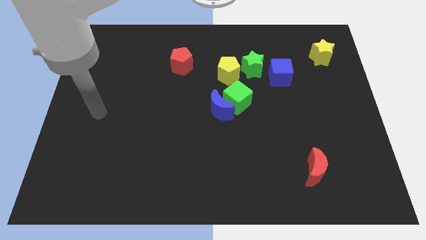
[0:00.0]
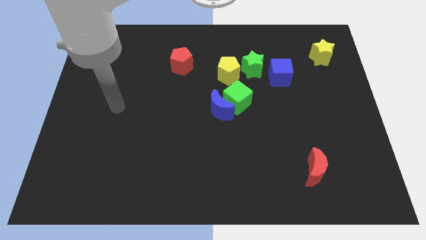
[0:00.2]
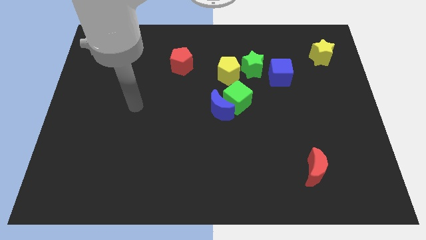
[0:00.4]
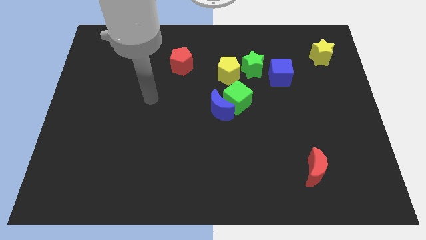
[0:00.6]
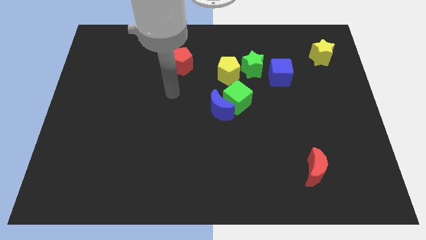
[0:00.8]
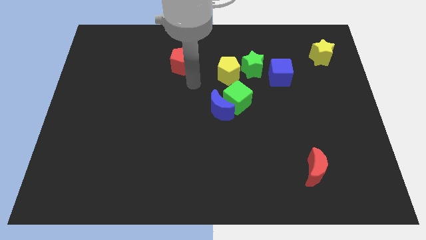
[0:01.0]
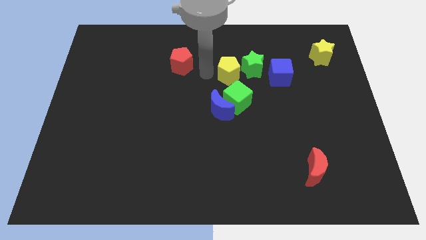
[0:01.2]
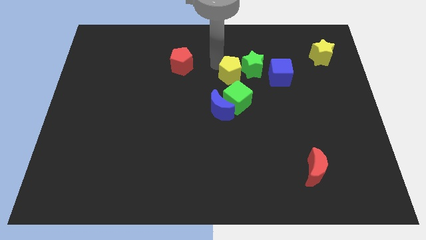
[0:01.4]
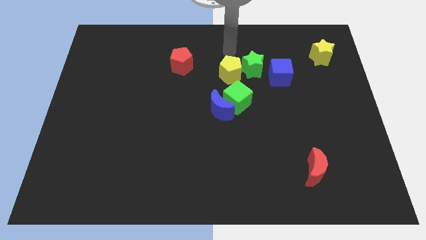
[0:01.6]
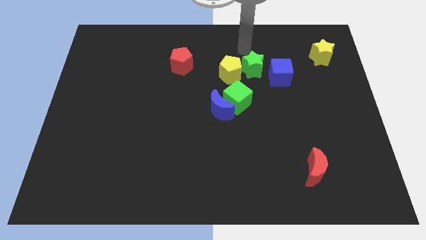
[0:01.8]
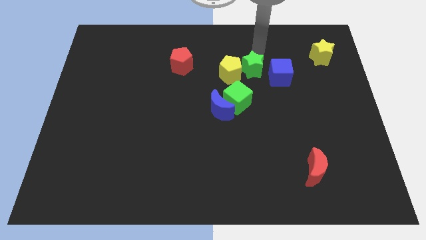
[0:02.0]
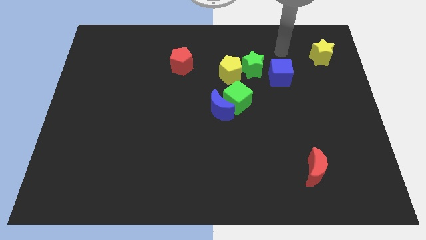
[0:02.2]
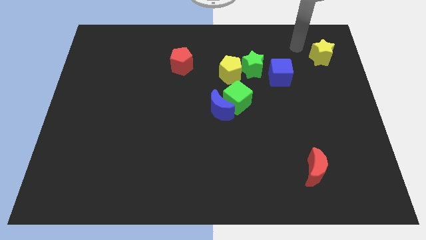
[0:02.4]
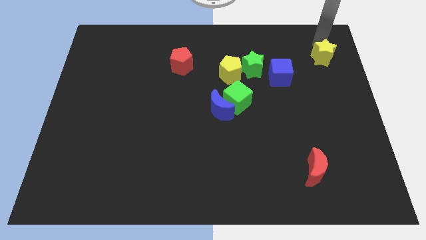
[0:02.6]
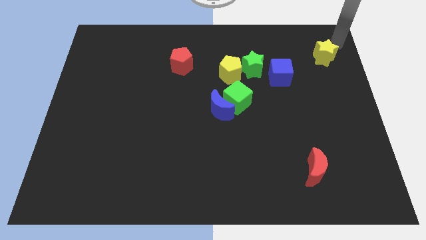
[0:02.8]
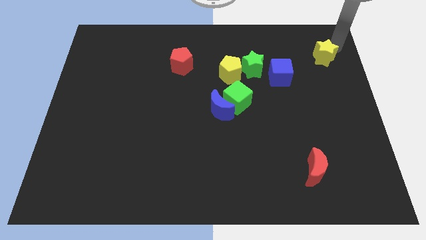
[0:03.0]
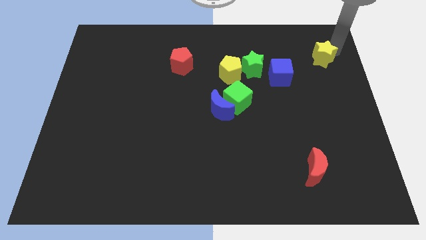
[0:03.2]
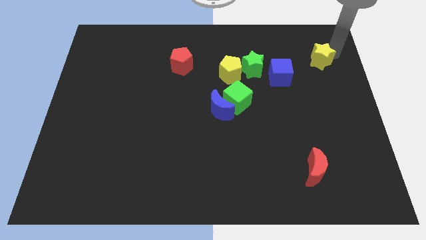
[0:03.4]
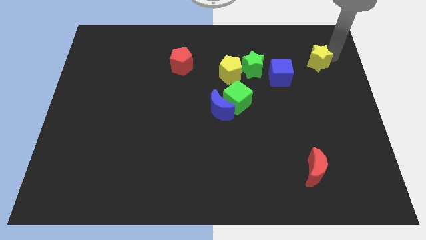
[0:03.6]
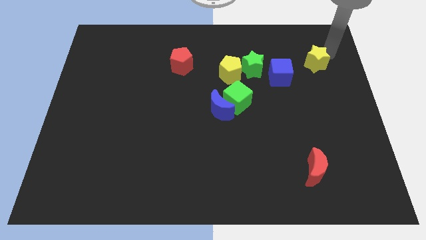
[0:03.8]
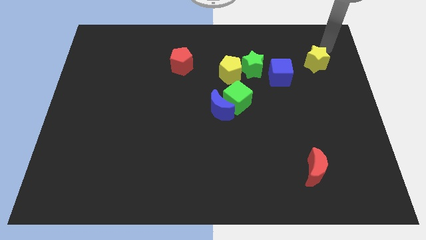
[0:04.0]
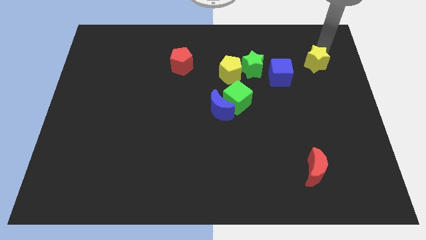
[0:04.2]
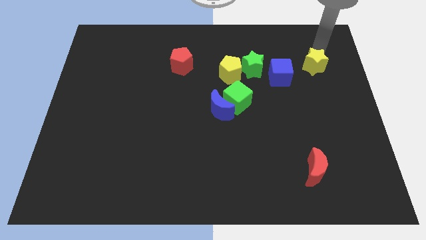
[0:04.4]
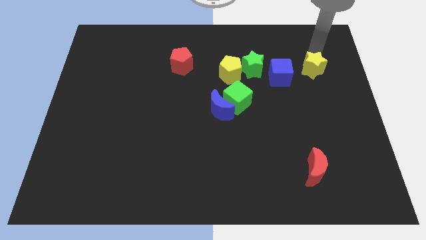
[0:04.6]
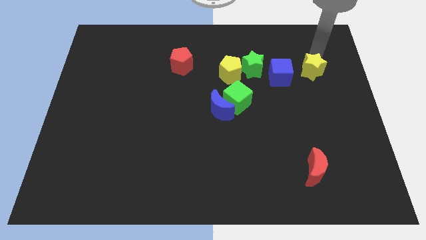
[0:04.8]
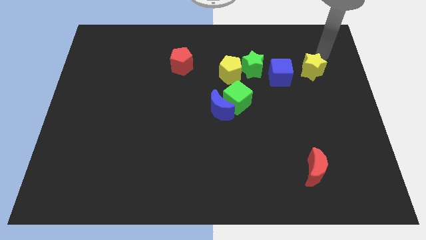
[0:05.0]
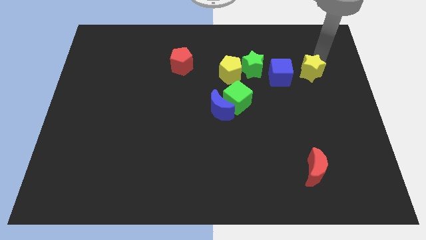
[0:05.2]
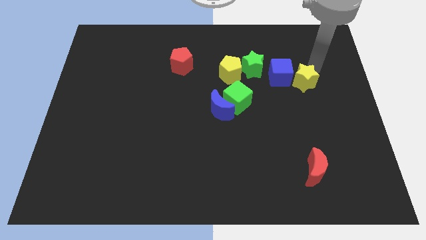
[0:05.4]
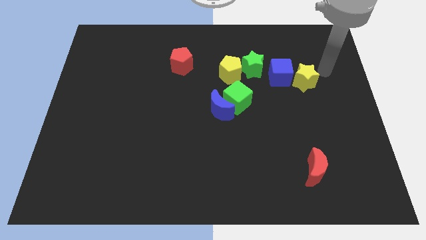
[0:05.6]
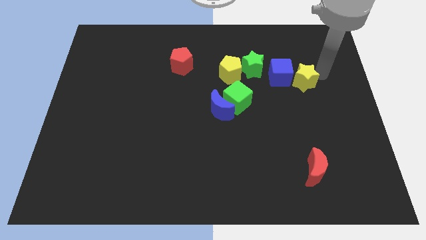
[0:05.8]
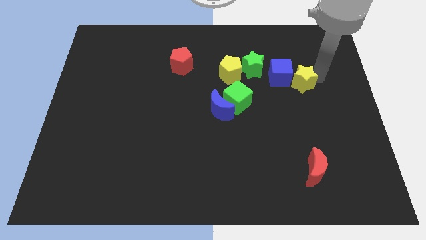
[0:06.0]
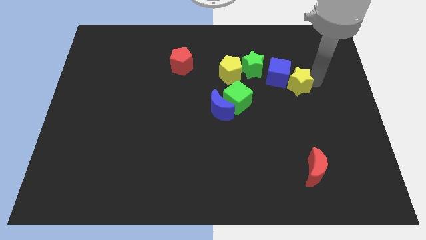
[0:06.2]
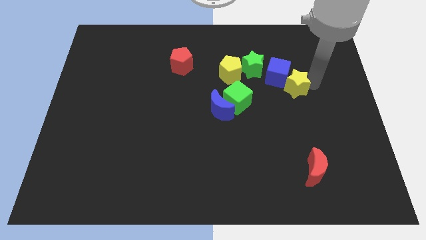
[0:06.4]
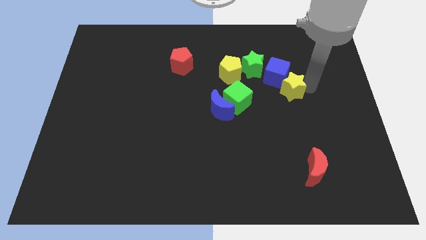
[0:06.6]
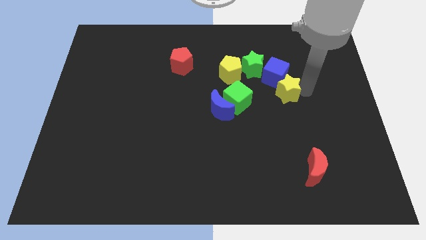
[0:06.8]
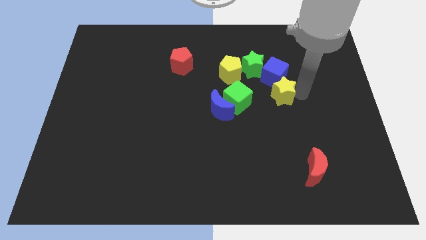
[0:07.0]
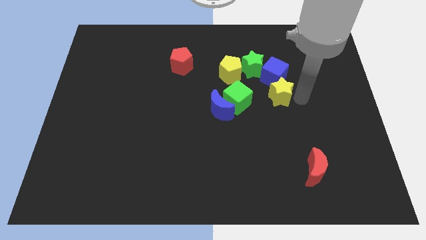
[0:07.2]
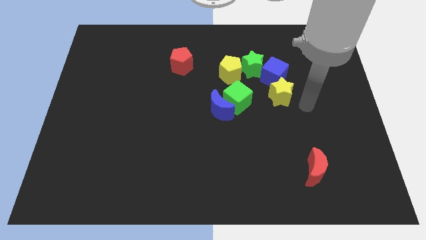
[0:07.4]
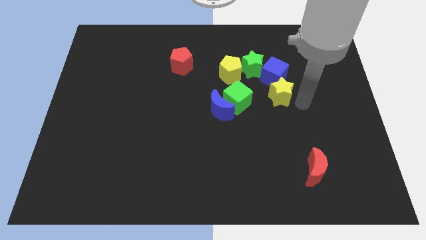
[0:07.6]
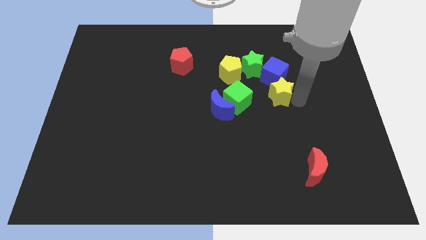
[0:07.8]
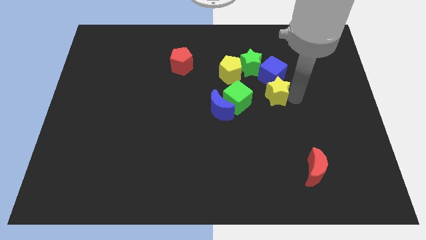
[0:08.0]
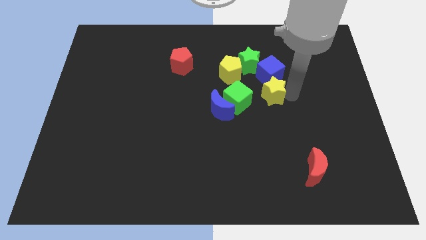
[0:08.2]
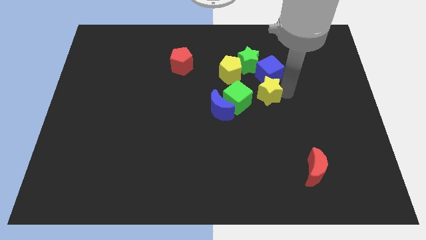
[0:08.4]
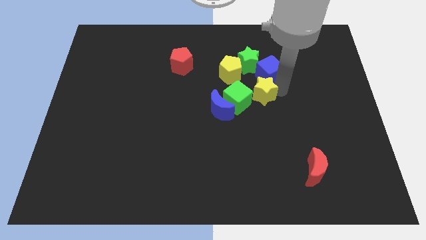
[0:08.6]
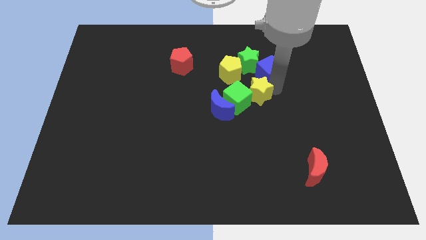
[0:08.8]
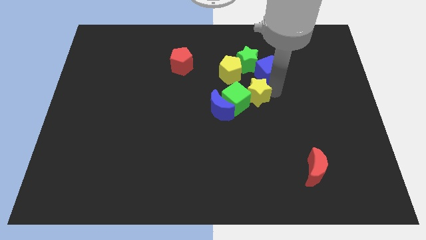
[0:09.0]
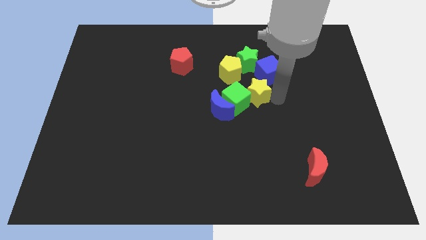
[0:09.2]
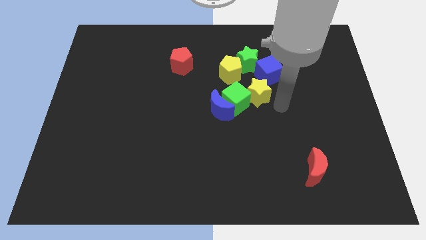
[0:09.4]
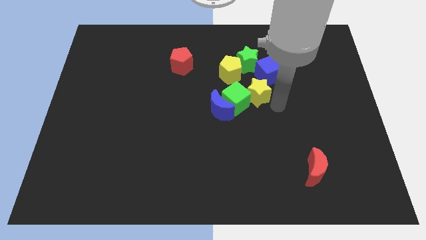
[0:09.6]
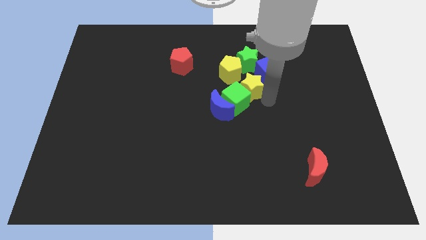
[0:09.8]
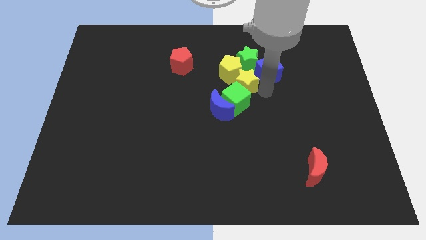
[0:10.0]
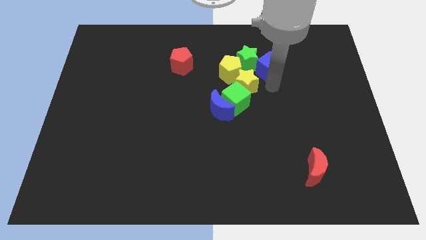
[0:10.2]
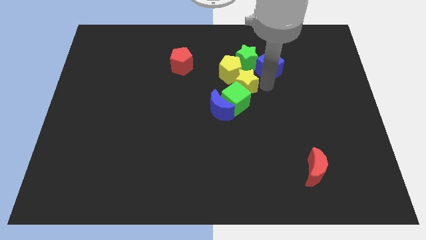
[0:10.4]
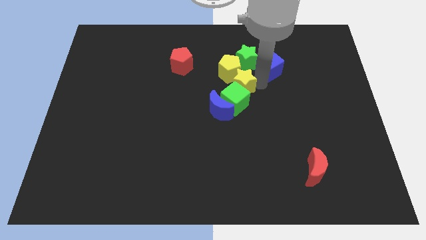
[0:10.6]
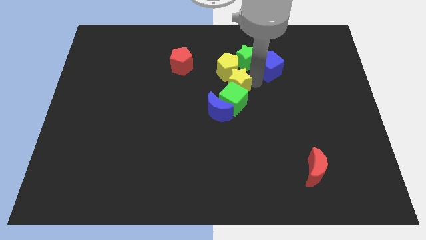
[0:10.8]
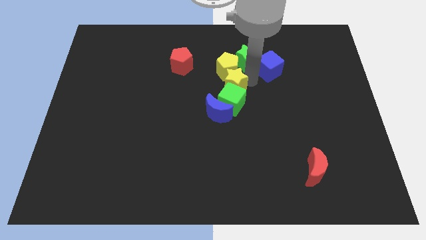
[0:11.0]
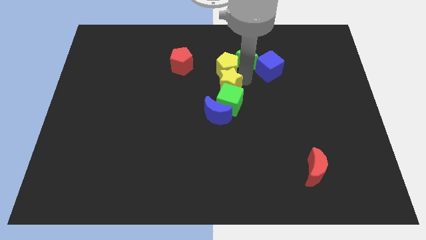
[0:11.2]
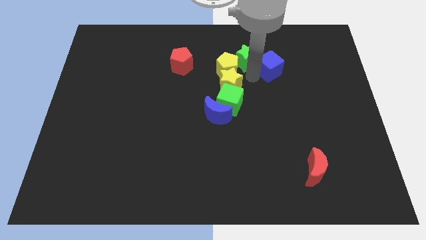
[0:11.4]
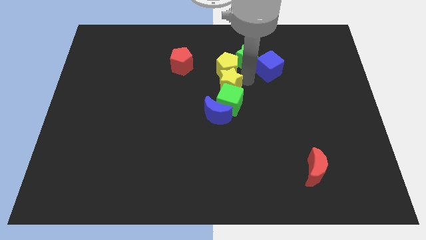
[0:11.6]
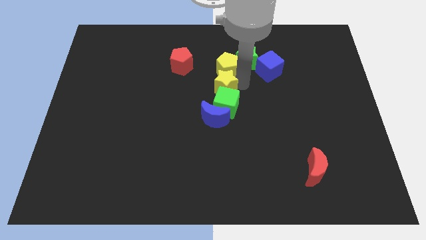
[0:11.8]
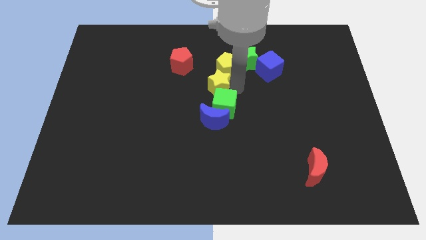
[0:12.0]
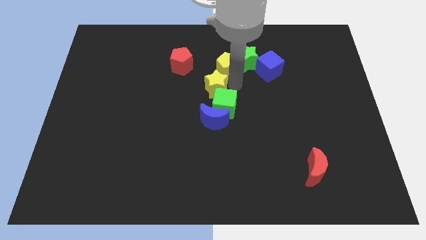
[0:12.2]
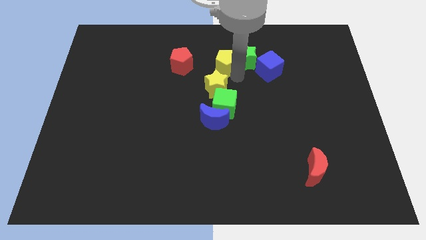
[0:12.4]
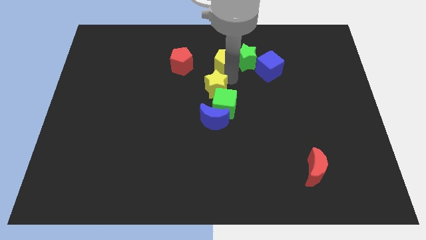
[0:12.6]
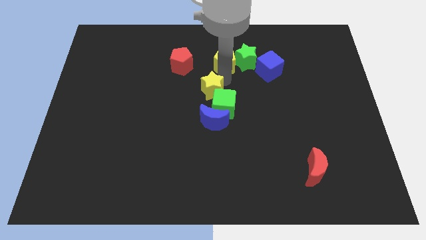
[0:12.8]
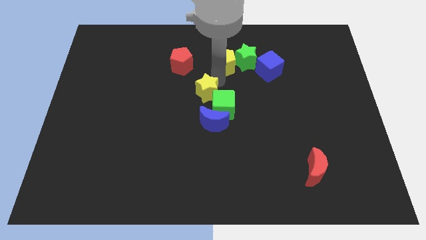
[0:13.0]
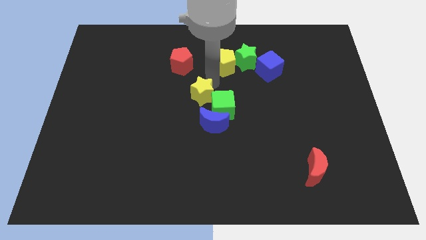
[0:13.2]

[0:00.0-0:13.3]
put the yellow star to the top left of the blue moon

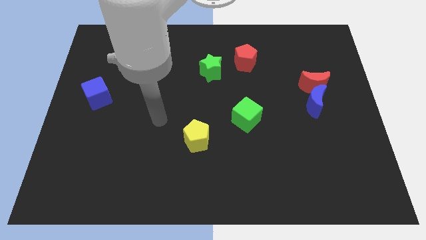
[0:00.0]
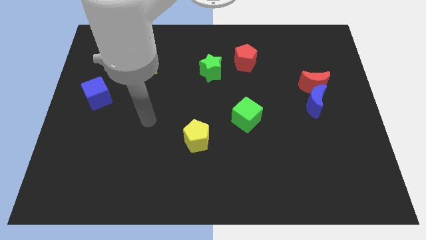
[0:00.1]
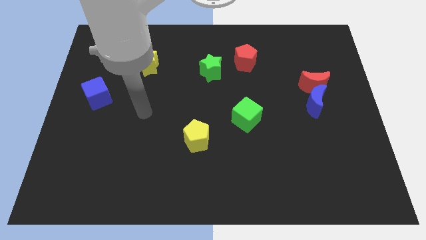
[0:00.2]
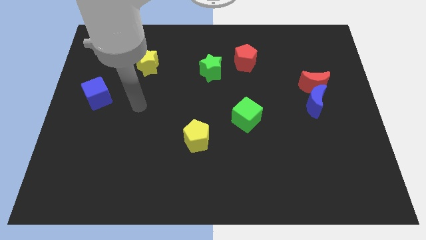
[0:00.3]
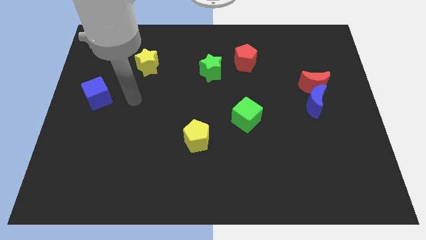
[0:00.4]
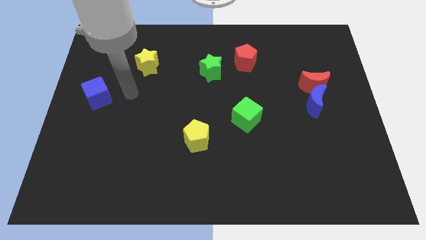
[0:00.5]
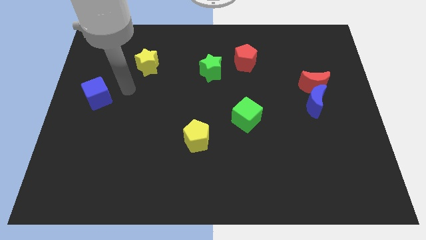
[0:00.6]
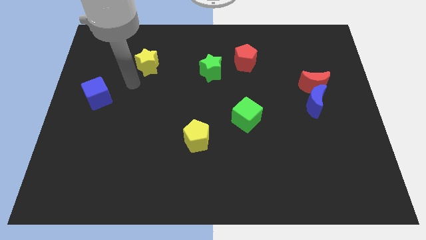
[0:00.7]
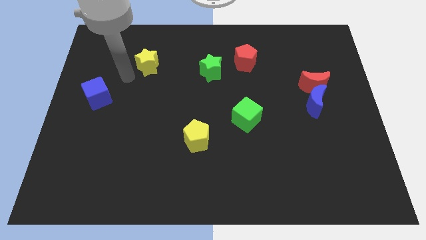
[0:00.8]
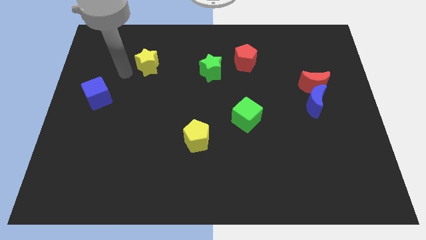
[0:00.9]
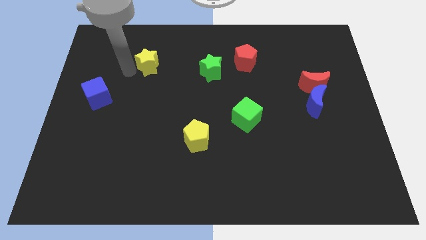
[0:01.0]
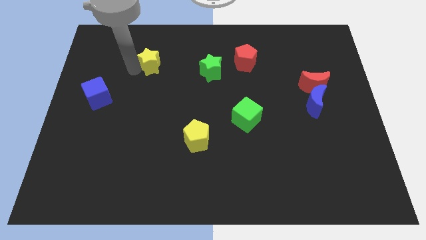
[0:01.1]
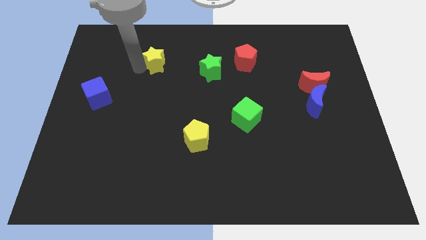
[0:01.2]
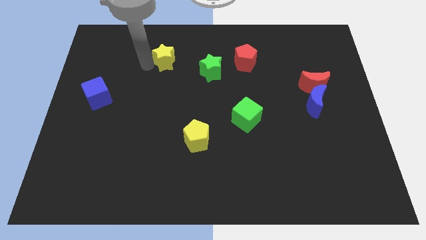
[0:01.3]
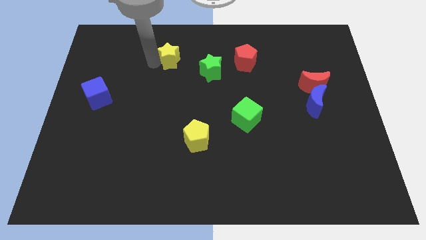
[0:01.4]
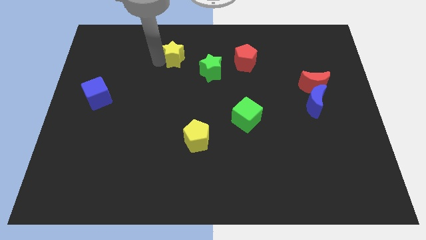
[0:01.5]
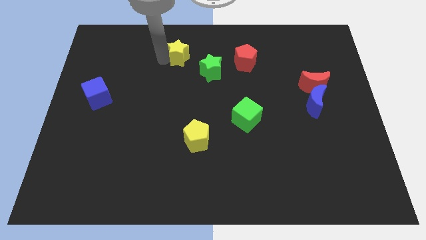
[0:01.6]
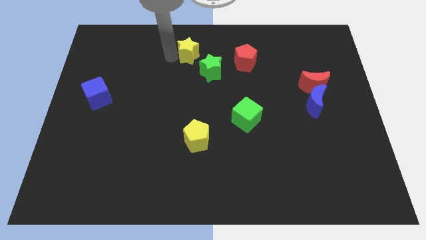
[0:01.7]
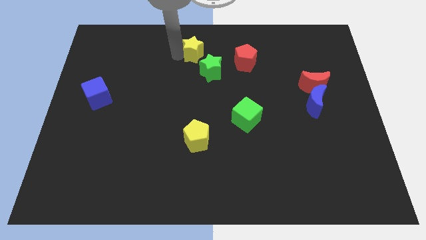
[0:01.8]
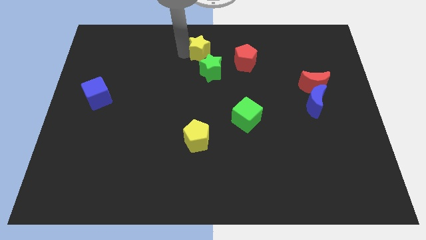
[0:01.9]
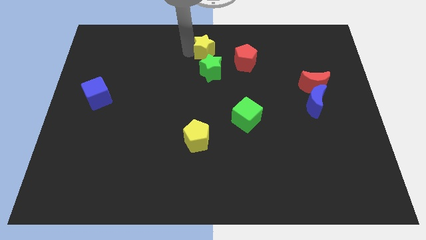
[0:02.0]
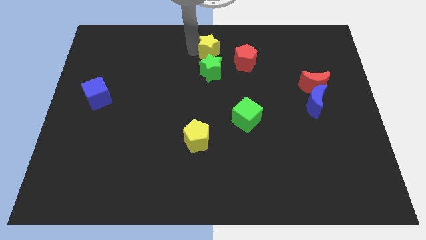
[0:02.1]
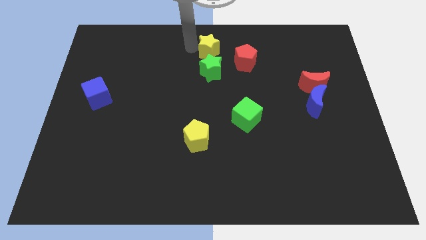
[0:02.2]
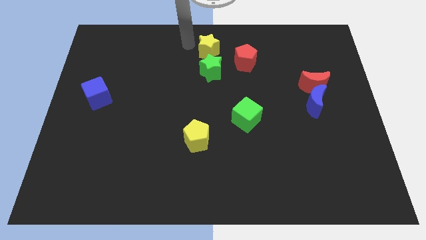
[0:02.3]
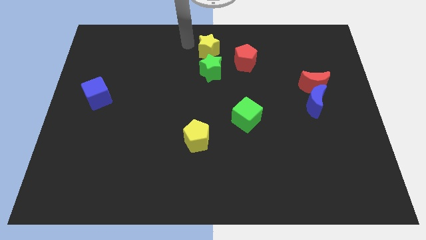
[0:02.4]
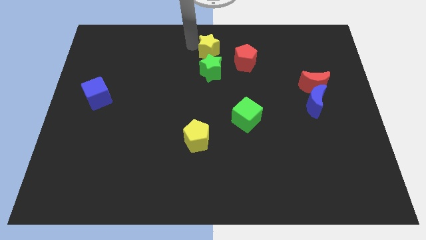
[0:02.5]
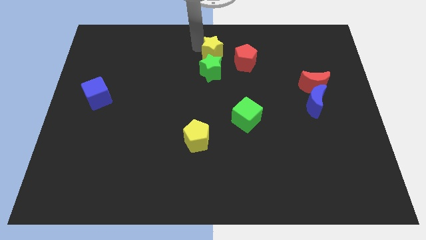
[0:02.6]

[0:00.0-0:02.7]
move the yellow star diagonally up and to the right of the green star
